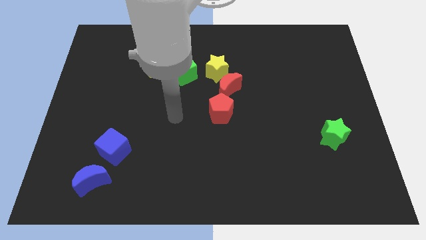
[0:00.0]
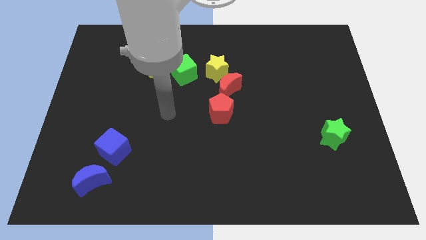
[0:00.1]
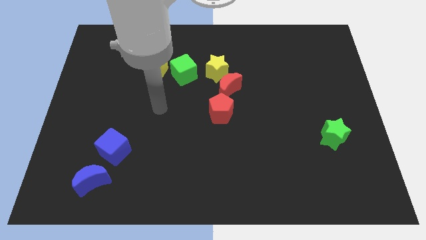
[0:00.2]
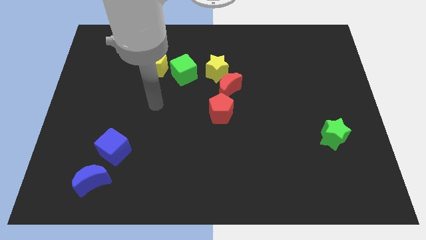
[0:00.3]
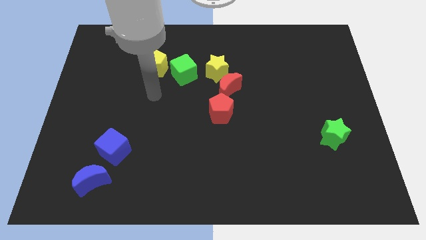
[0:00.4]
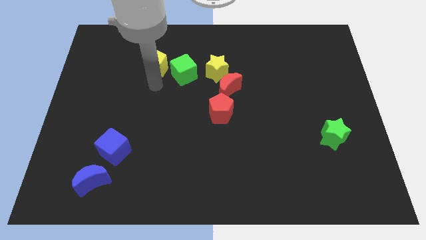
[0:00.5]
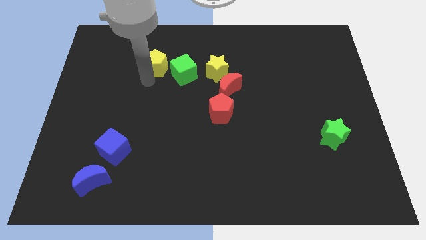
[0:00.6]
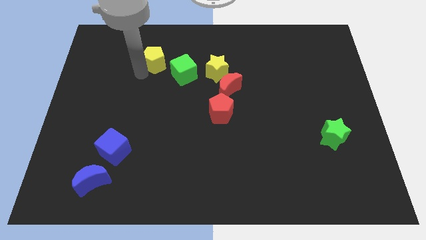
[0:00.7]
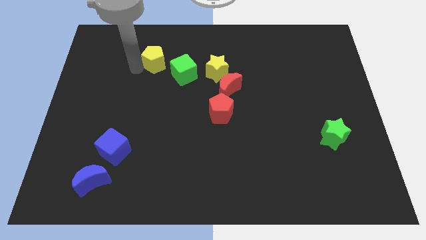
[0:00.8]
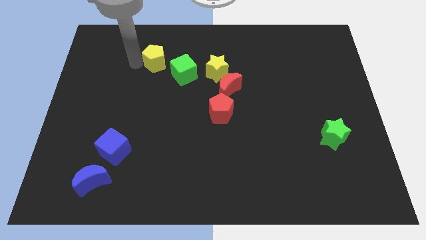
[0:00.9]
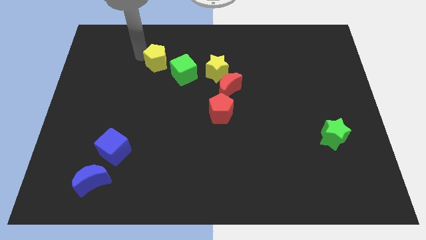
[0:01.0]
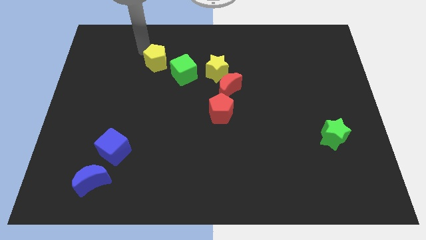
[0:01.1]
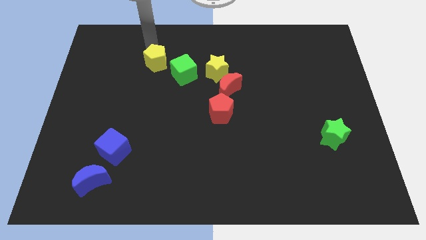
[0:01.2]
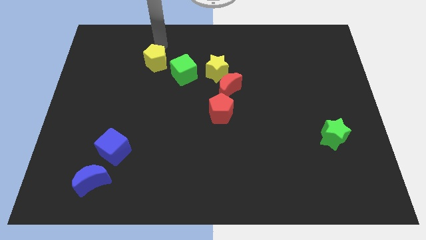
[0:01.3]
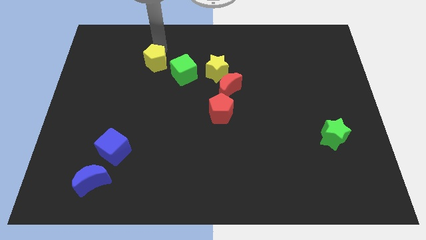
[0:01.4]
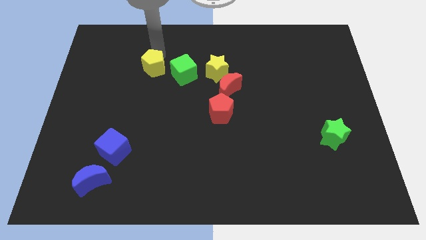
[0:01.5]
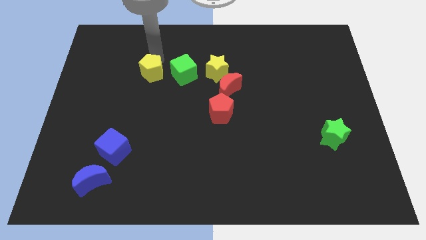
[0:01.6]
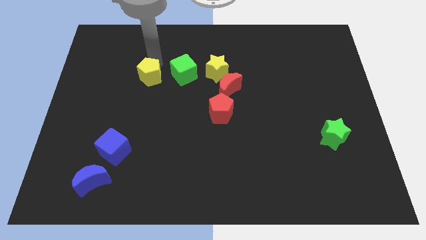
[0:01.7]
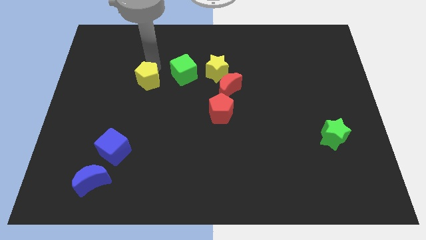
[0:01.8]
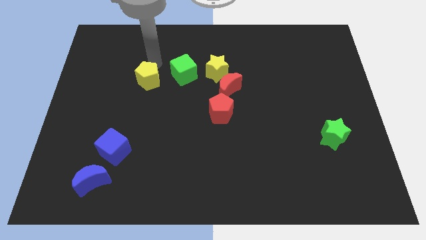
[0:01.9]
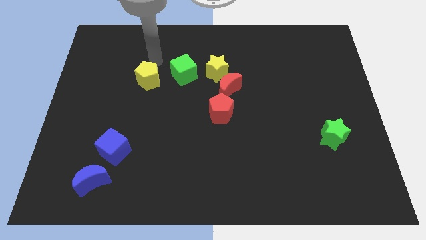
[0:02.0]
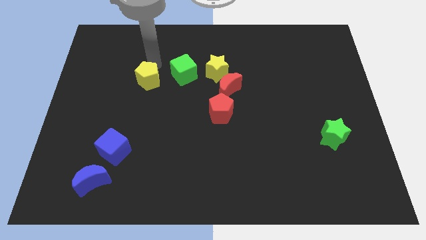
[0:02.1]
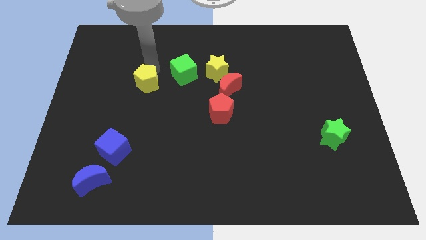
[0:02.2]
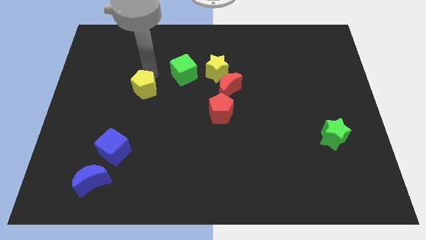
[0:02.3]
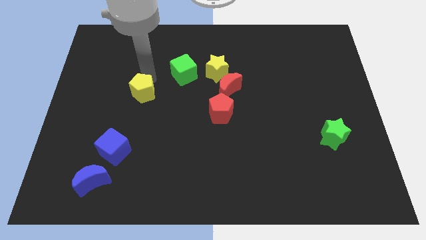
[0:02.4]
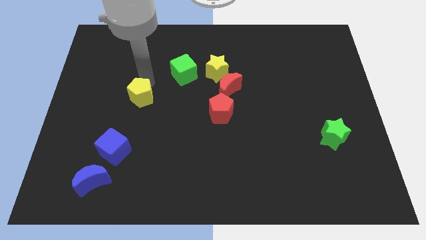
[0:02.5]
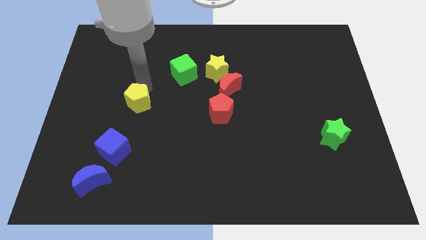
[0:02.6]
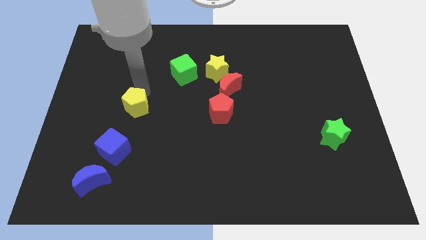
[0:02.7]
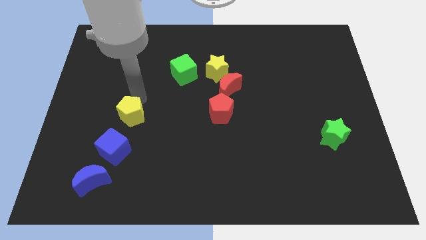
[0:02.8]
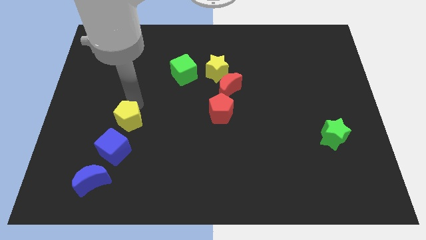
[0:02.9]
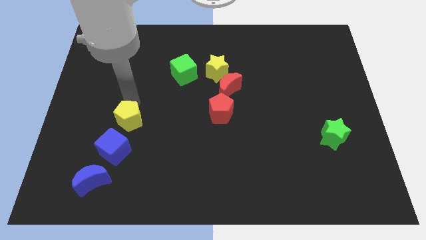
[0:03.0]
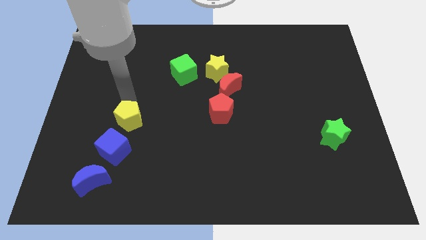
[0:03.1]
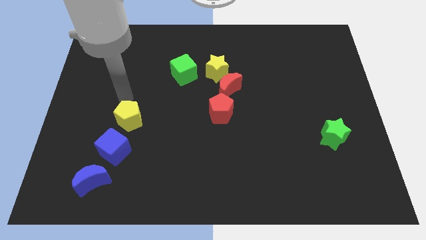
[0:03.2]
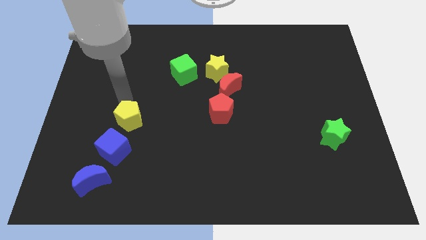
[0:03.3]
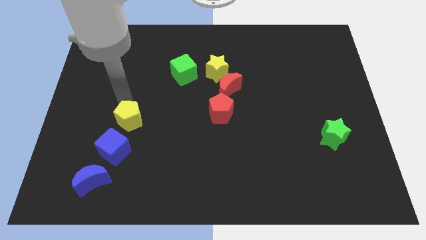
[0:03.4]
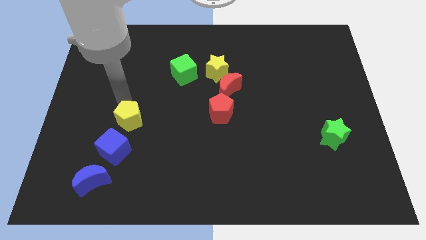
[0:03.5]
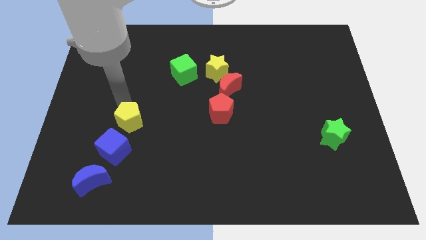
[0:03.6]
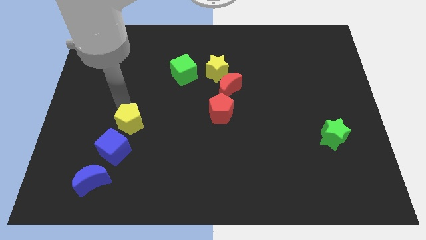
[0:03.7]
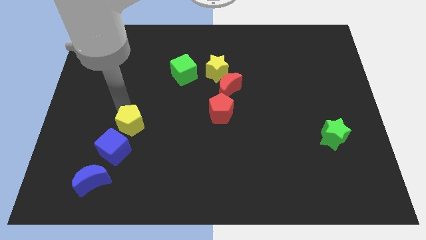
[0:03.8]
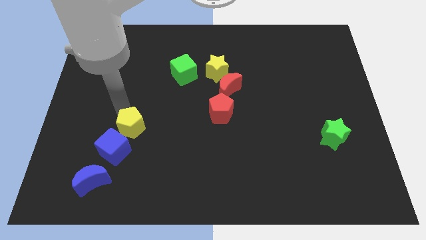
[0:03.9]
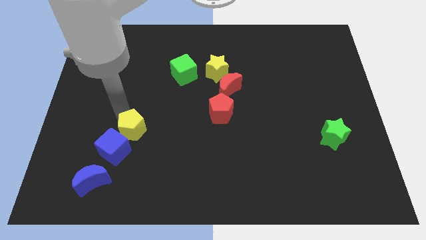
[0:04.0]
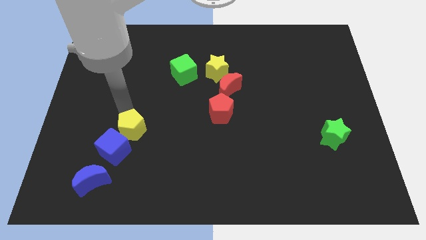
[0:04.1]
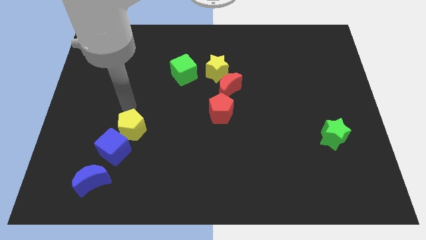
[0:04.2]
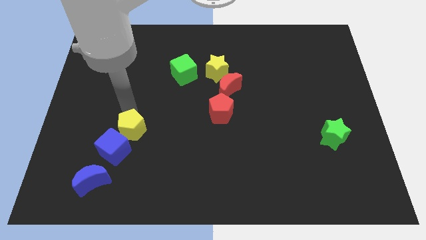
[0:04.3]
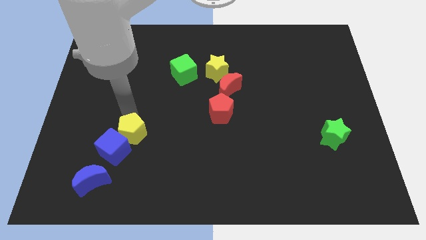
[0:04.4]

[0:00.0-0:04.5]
push the yellow pentagon down

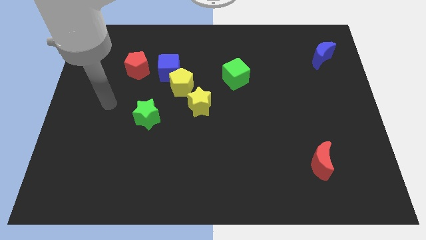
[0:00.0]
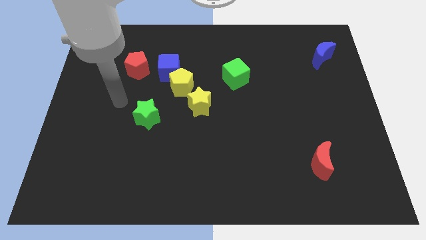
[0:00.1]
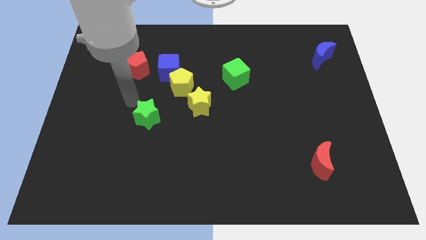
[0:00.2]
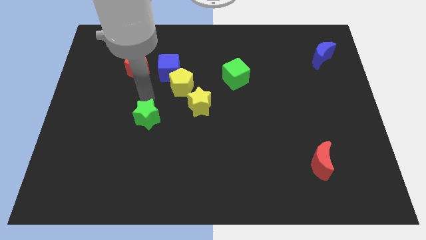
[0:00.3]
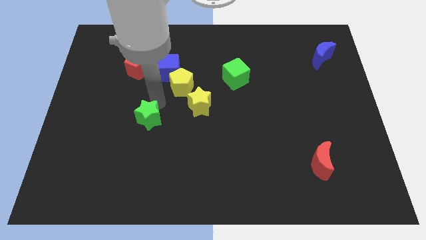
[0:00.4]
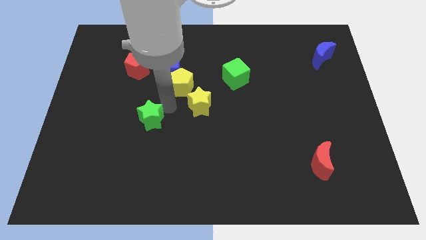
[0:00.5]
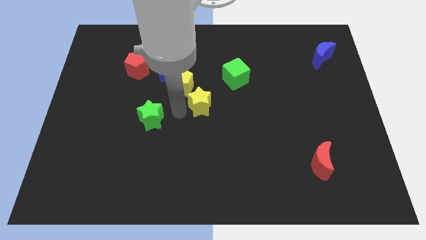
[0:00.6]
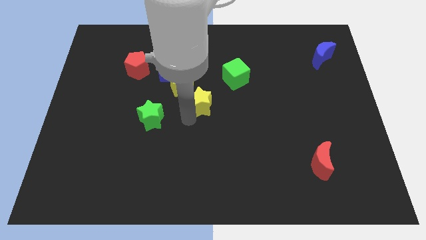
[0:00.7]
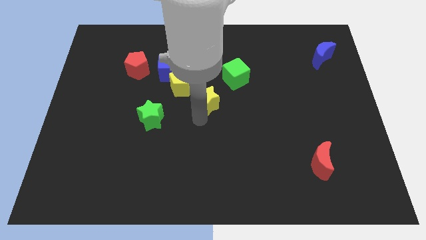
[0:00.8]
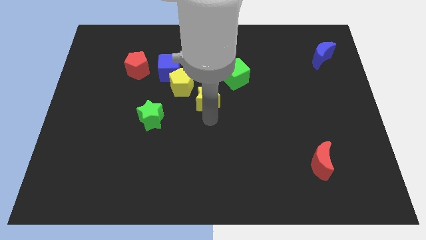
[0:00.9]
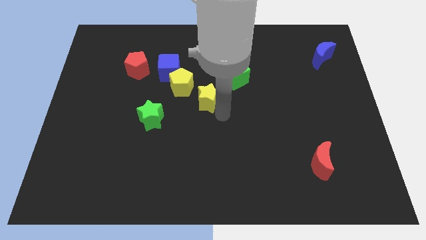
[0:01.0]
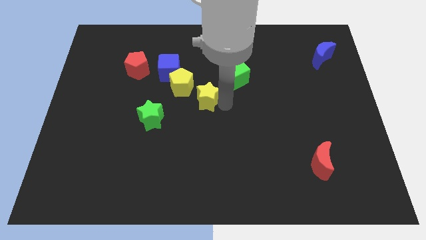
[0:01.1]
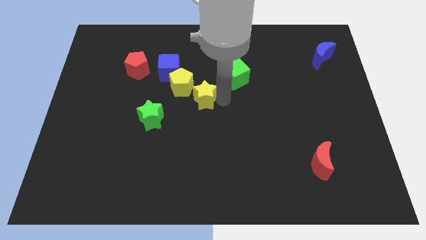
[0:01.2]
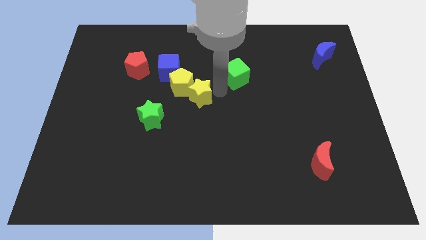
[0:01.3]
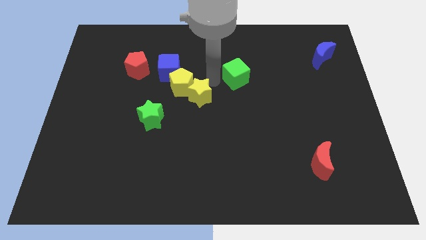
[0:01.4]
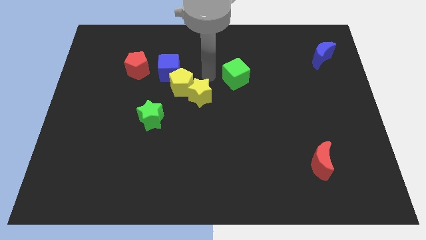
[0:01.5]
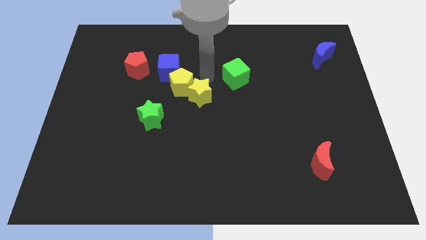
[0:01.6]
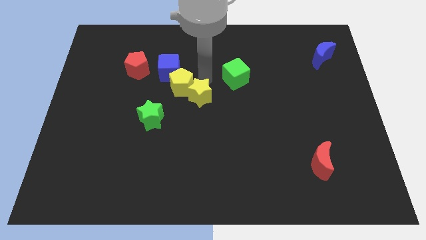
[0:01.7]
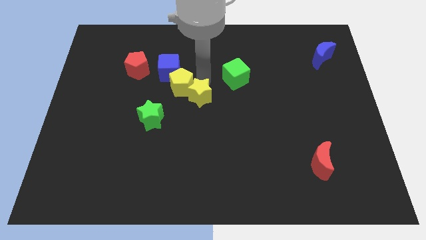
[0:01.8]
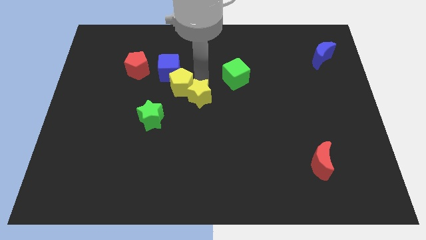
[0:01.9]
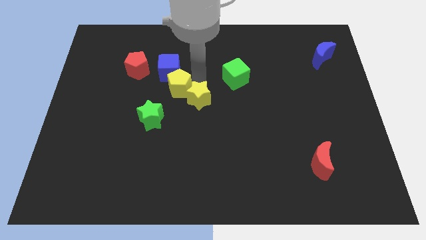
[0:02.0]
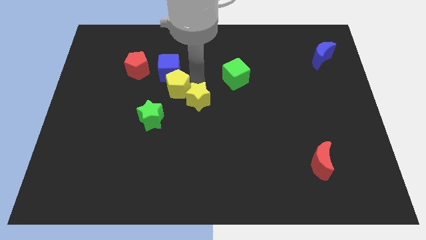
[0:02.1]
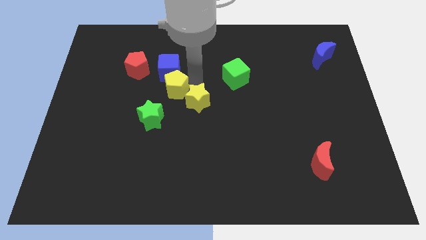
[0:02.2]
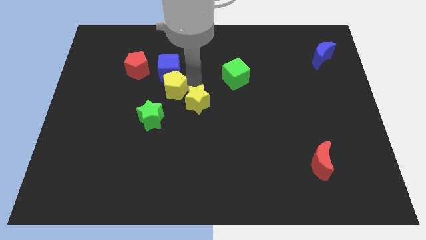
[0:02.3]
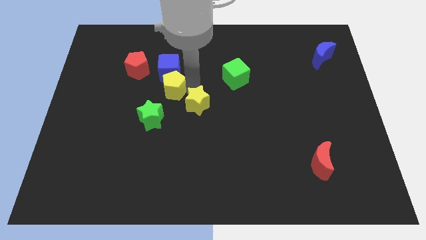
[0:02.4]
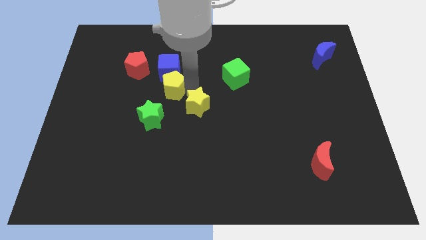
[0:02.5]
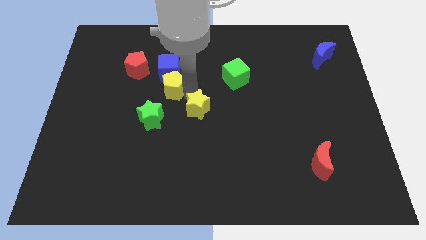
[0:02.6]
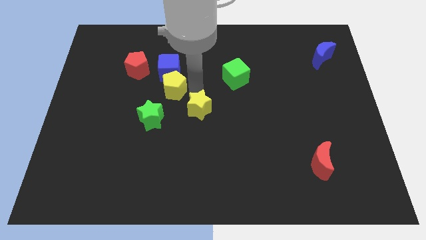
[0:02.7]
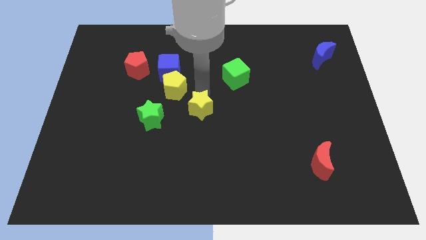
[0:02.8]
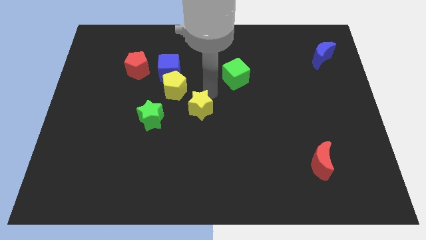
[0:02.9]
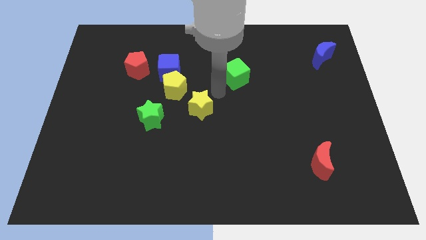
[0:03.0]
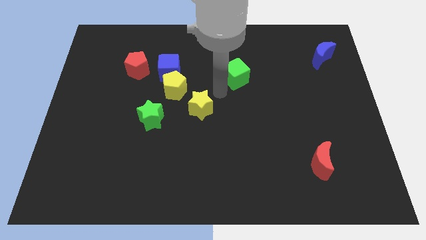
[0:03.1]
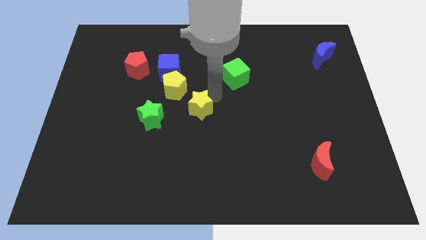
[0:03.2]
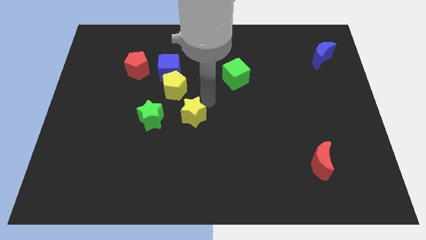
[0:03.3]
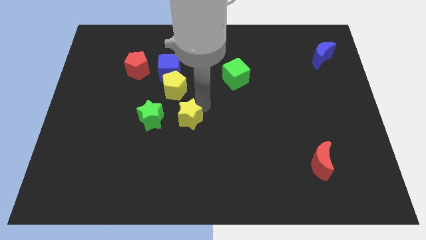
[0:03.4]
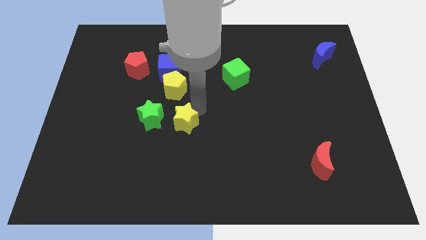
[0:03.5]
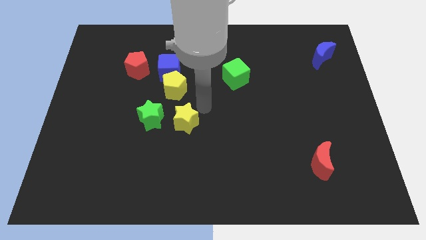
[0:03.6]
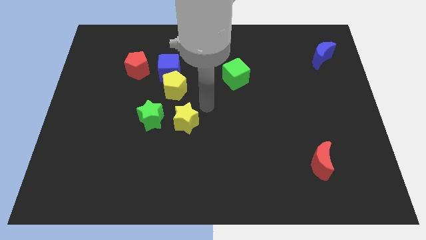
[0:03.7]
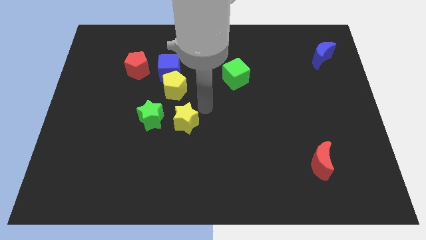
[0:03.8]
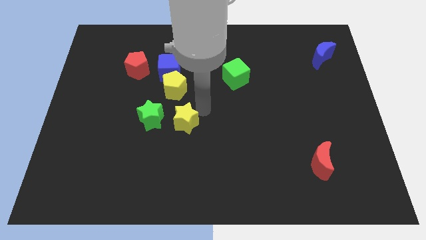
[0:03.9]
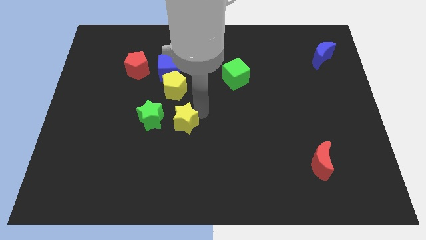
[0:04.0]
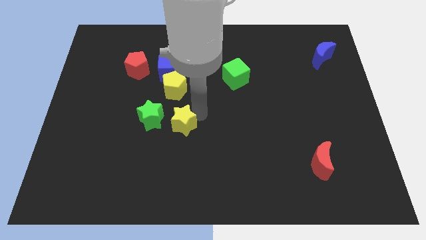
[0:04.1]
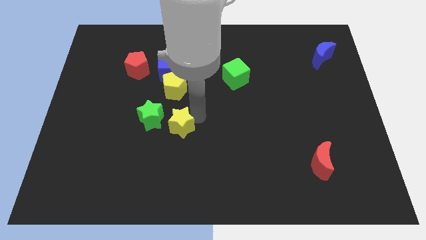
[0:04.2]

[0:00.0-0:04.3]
move the yellow star down and to the left a bit
